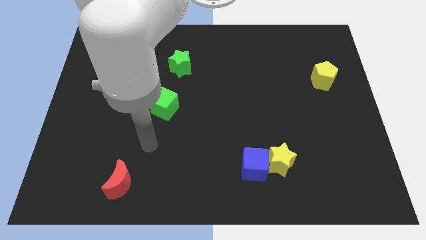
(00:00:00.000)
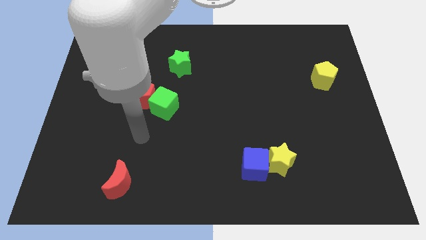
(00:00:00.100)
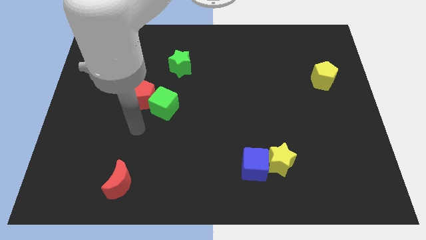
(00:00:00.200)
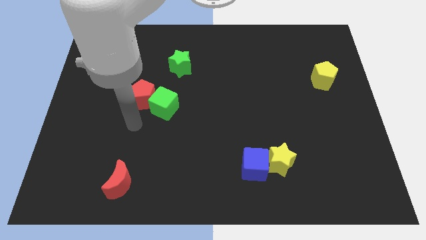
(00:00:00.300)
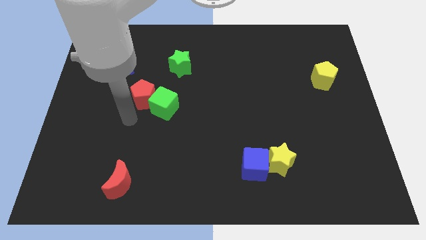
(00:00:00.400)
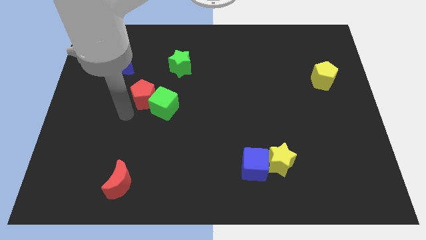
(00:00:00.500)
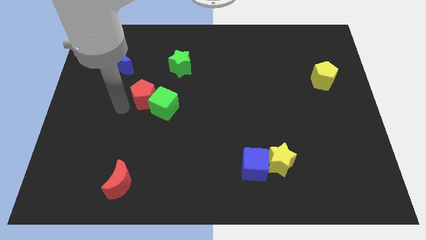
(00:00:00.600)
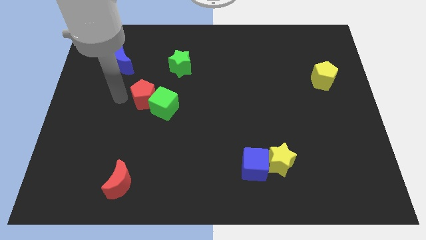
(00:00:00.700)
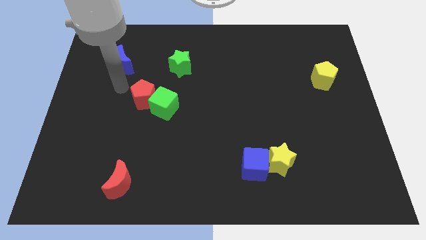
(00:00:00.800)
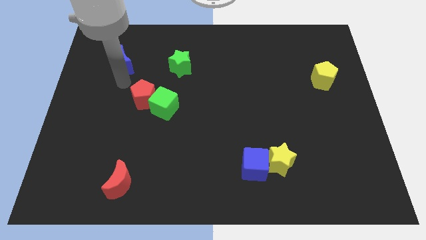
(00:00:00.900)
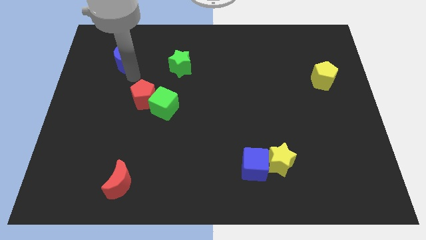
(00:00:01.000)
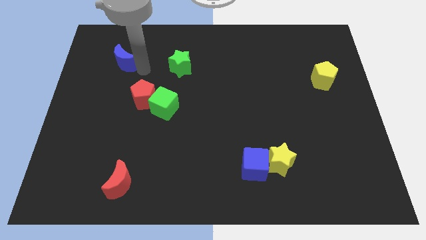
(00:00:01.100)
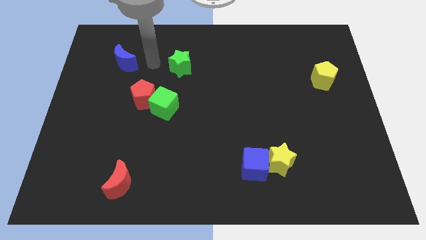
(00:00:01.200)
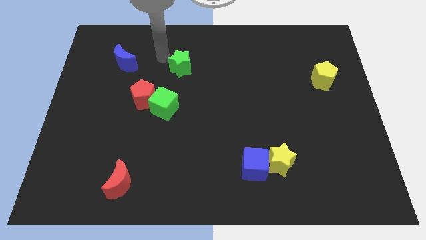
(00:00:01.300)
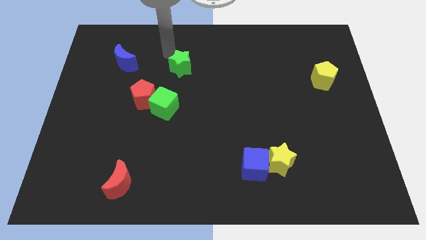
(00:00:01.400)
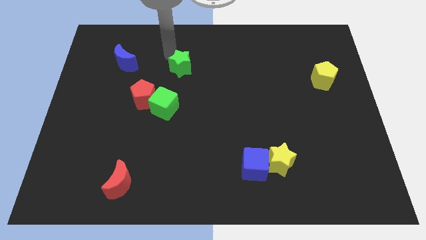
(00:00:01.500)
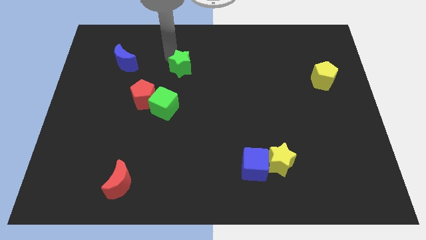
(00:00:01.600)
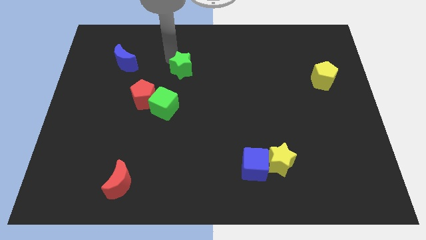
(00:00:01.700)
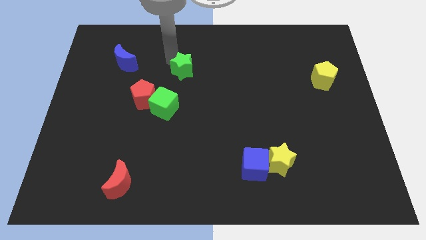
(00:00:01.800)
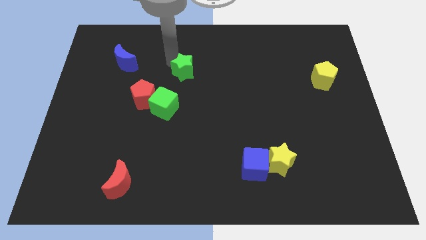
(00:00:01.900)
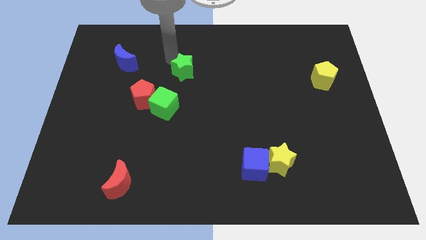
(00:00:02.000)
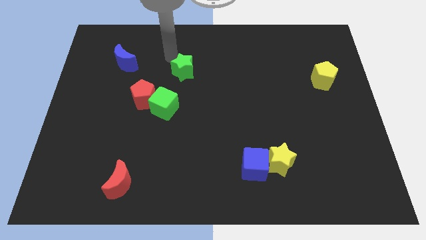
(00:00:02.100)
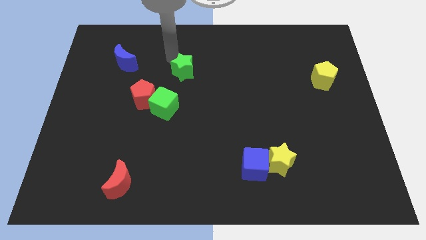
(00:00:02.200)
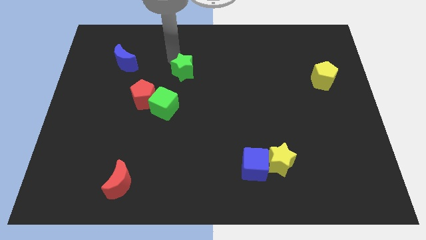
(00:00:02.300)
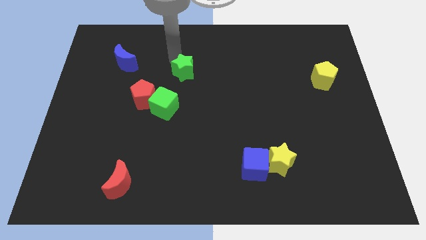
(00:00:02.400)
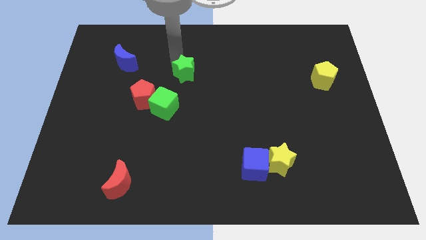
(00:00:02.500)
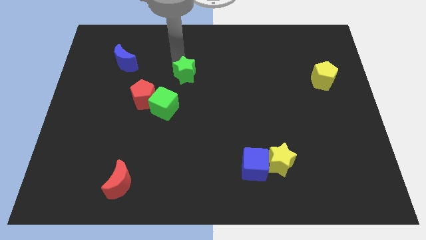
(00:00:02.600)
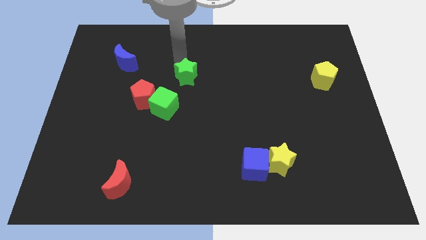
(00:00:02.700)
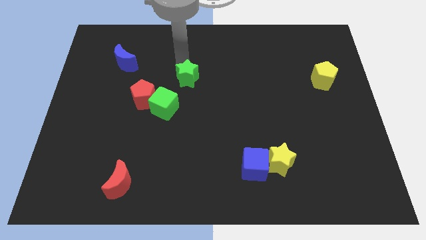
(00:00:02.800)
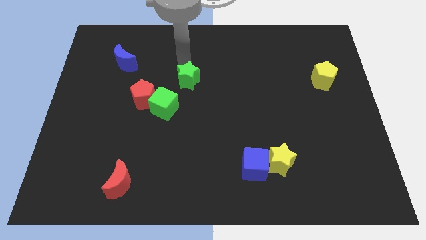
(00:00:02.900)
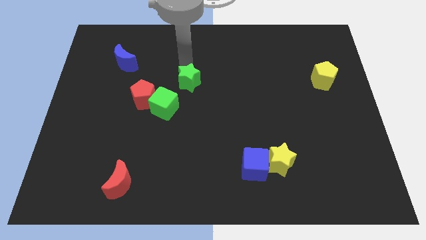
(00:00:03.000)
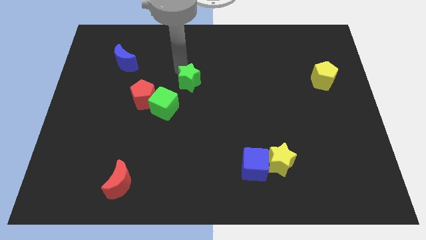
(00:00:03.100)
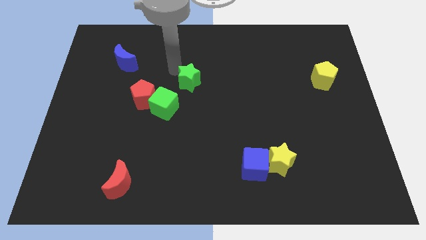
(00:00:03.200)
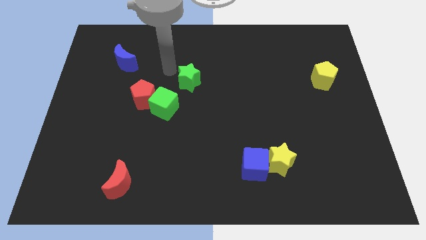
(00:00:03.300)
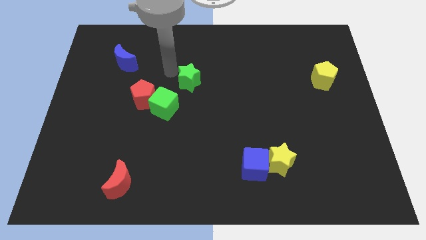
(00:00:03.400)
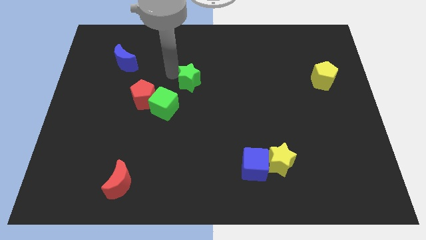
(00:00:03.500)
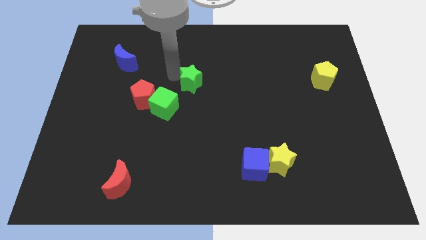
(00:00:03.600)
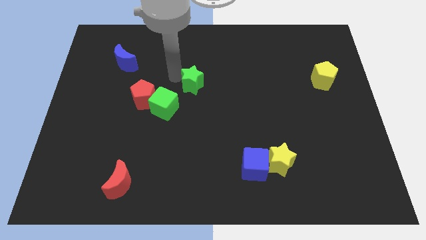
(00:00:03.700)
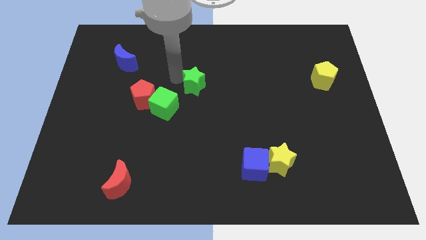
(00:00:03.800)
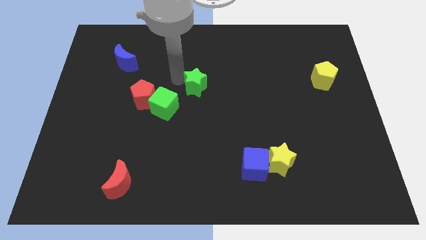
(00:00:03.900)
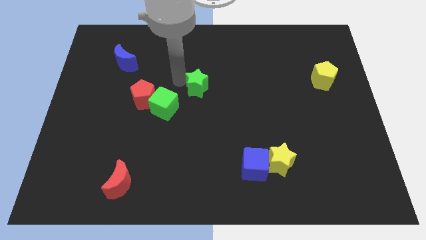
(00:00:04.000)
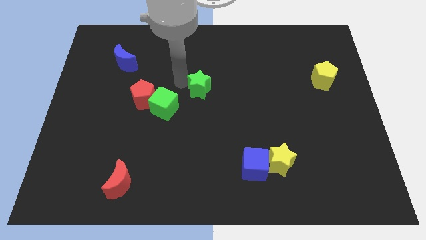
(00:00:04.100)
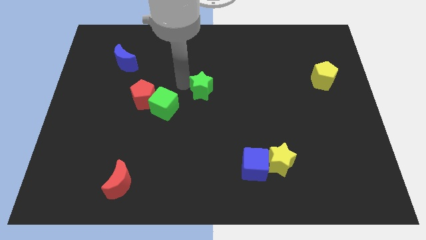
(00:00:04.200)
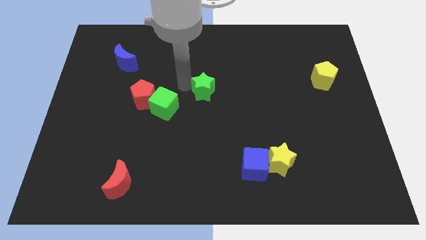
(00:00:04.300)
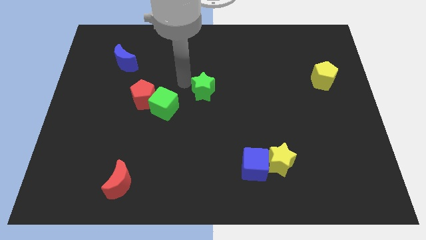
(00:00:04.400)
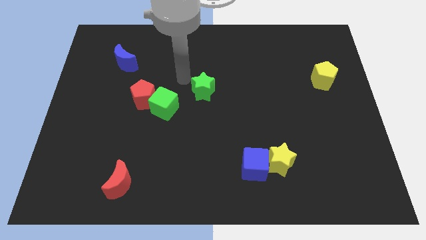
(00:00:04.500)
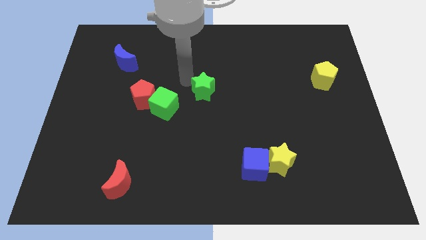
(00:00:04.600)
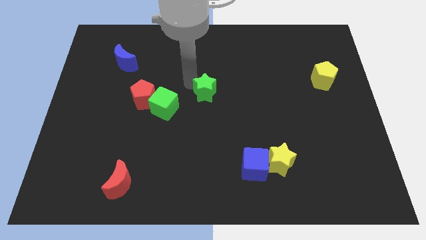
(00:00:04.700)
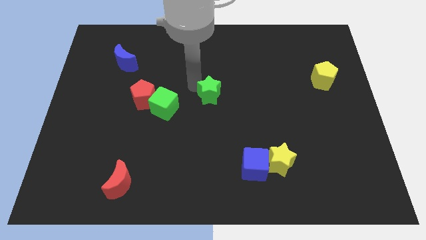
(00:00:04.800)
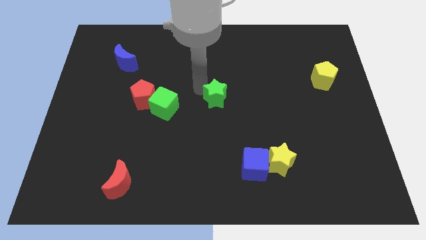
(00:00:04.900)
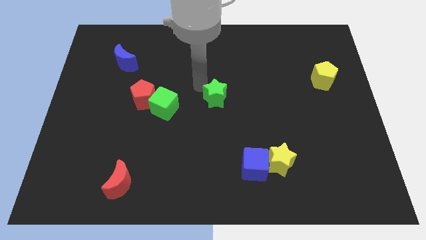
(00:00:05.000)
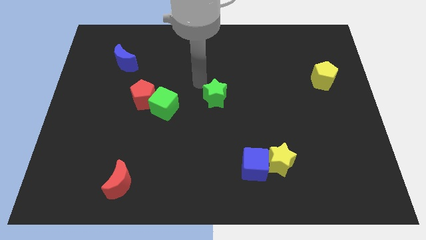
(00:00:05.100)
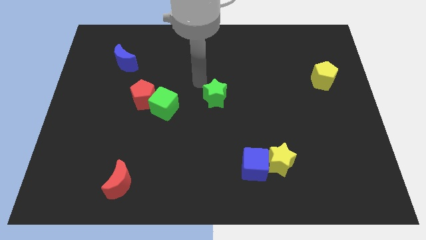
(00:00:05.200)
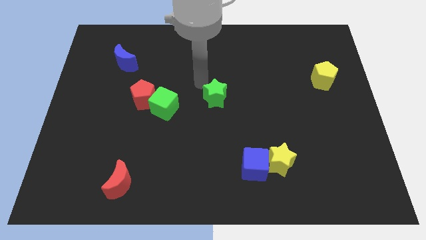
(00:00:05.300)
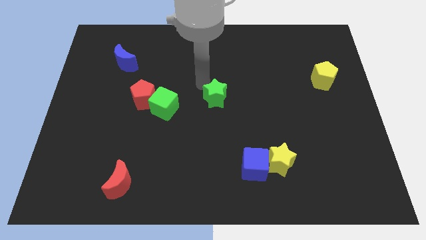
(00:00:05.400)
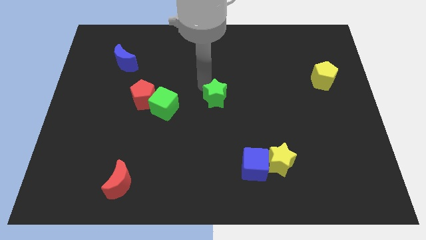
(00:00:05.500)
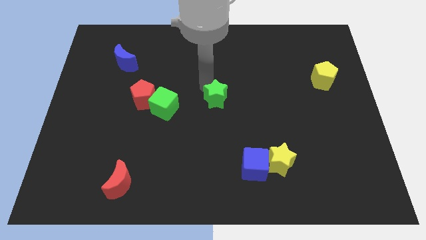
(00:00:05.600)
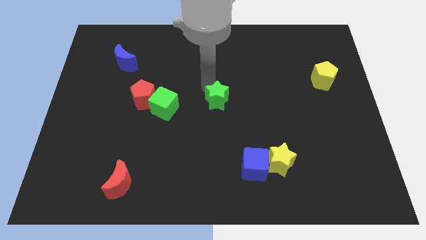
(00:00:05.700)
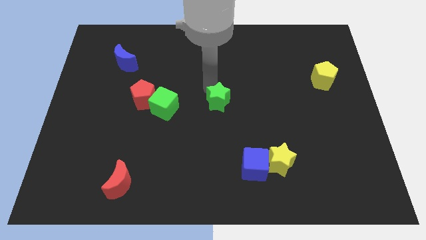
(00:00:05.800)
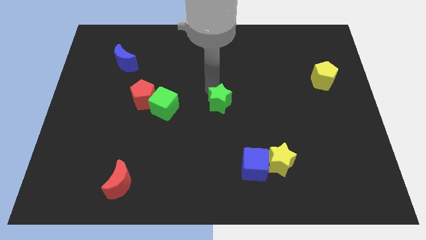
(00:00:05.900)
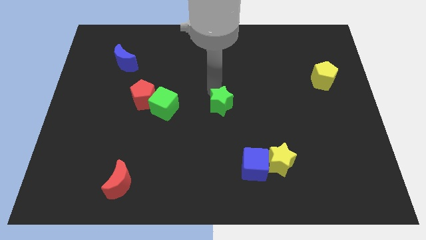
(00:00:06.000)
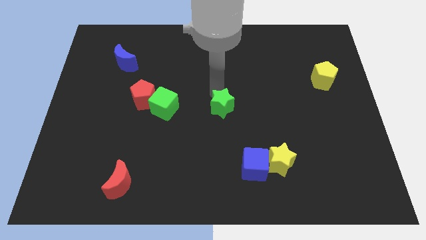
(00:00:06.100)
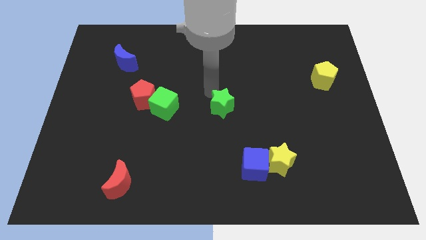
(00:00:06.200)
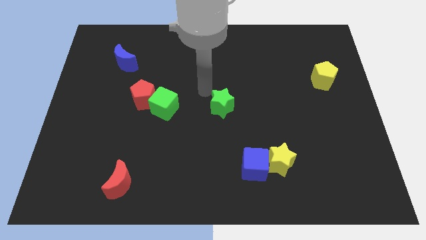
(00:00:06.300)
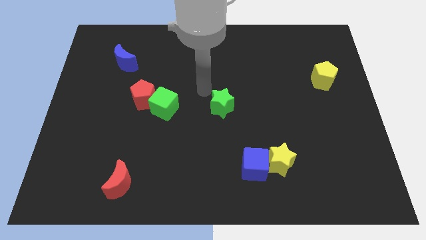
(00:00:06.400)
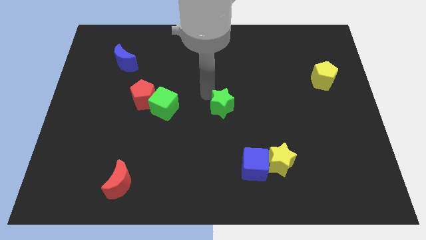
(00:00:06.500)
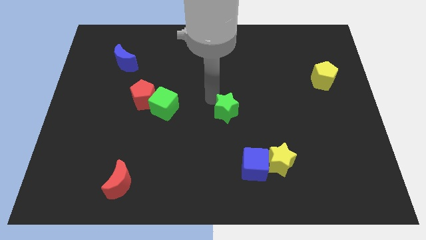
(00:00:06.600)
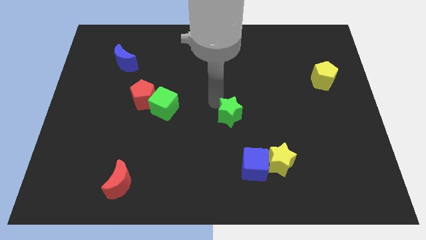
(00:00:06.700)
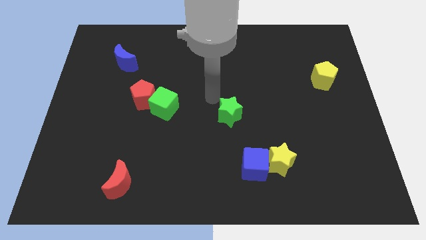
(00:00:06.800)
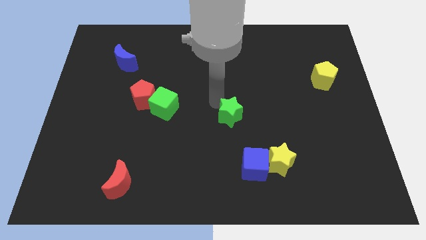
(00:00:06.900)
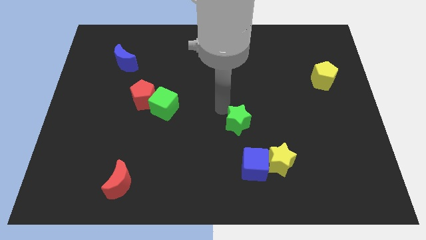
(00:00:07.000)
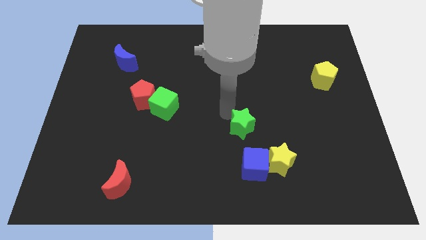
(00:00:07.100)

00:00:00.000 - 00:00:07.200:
put the green star to the top left side of the yellow star

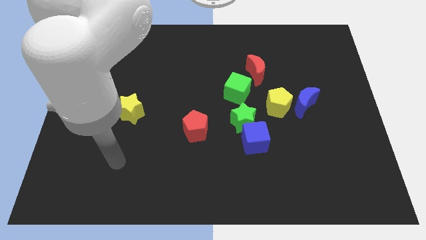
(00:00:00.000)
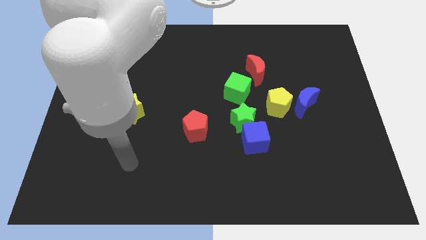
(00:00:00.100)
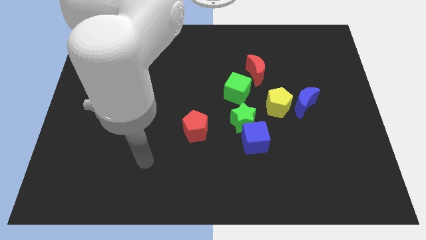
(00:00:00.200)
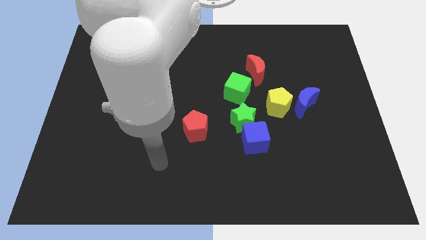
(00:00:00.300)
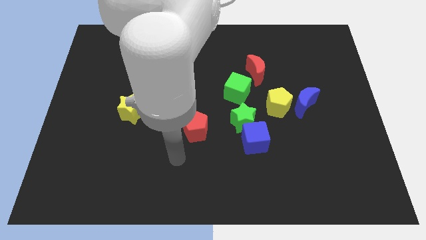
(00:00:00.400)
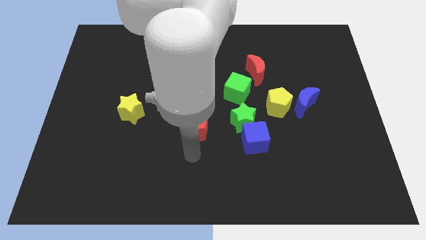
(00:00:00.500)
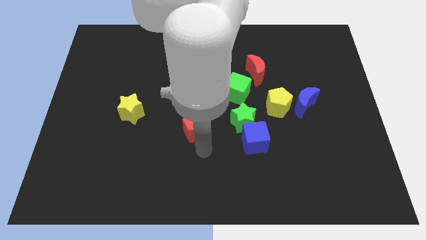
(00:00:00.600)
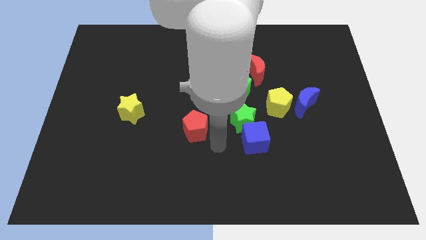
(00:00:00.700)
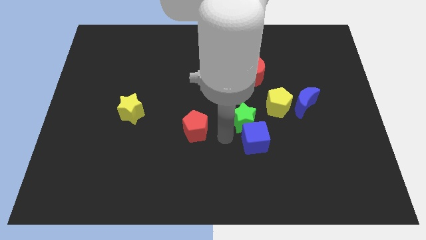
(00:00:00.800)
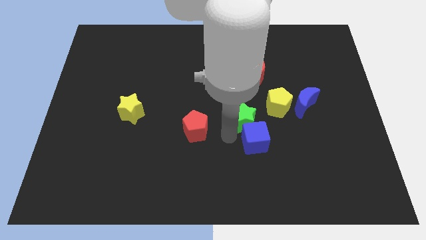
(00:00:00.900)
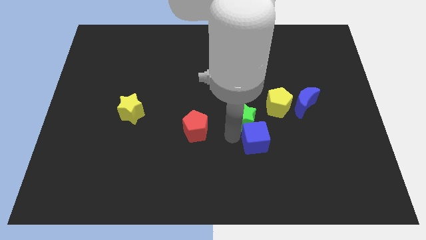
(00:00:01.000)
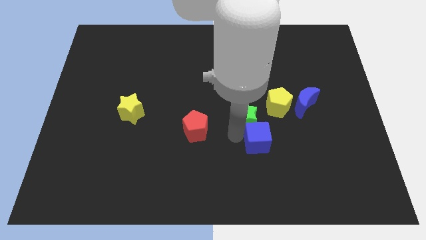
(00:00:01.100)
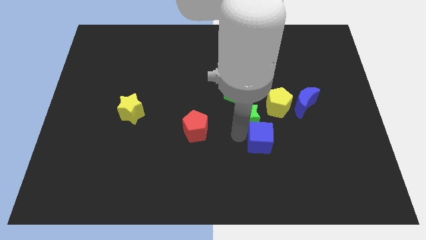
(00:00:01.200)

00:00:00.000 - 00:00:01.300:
push the blue cube to the bottom side of the yellow pentagon
